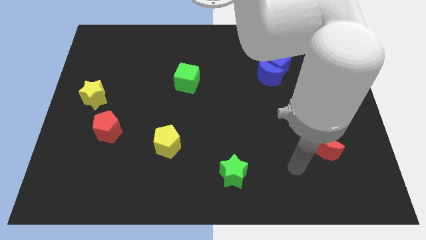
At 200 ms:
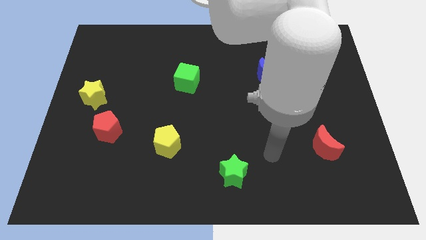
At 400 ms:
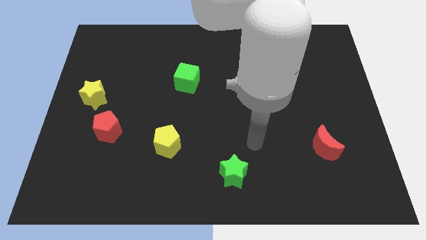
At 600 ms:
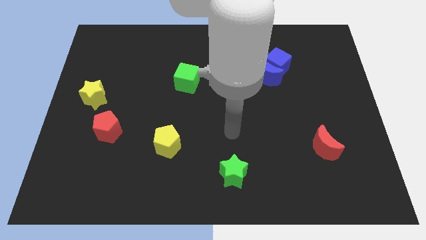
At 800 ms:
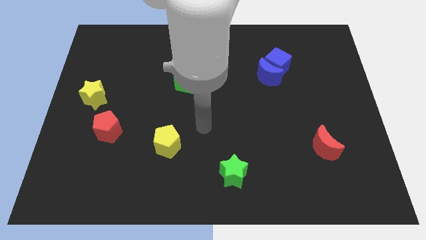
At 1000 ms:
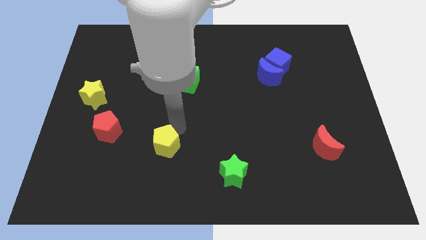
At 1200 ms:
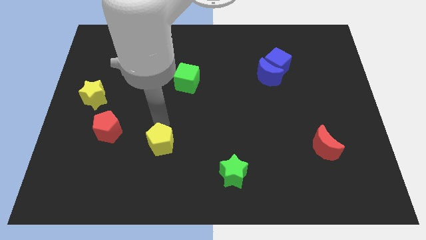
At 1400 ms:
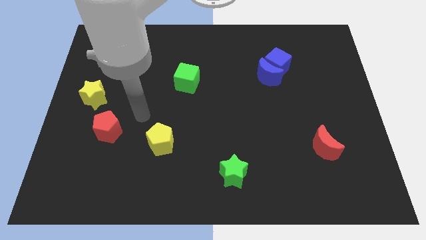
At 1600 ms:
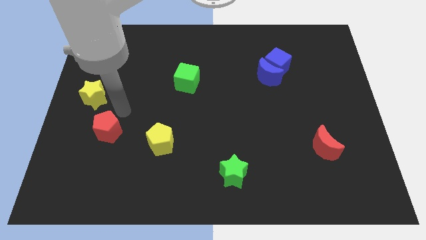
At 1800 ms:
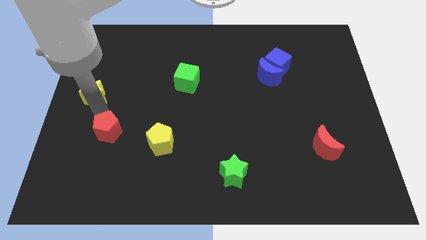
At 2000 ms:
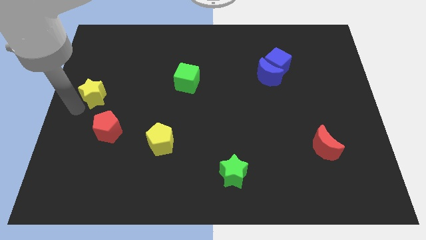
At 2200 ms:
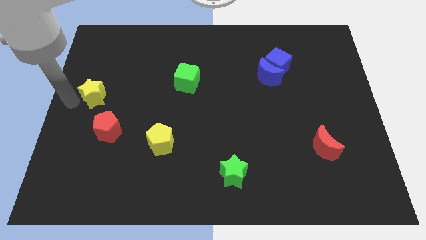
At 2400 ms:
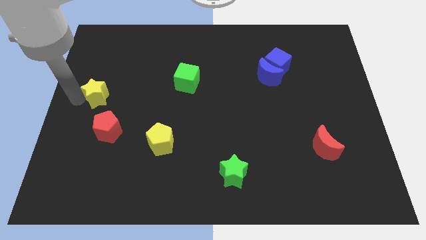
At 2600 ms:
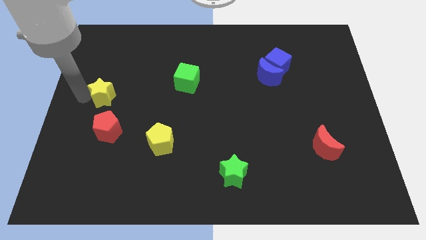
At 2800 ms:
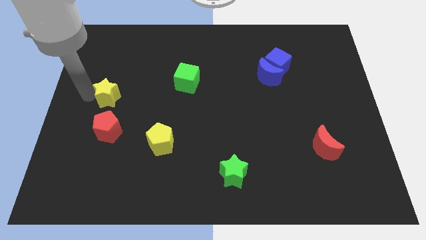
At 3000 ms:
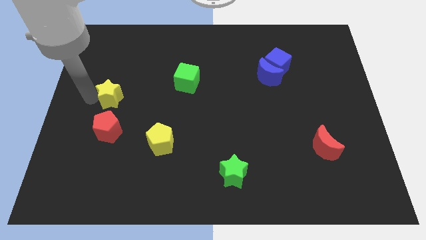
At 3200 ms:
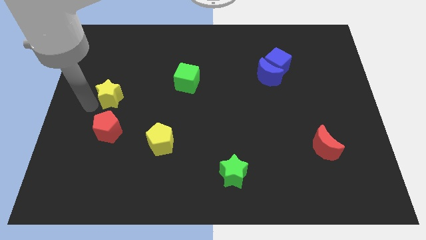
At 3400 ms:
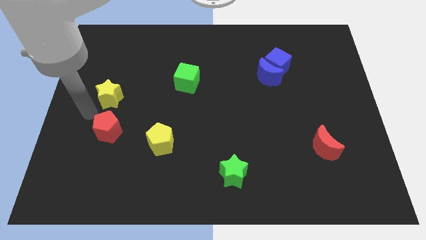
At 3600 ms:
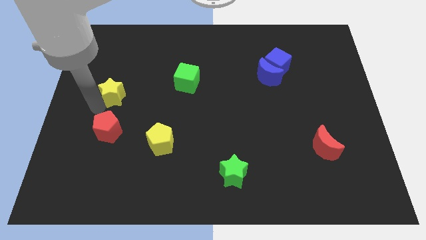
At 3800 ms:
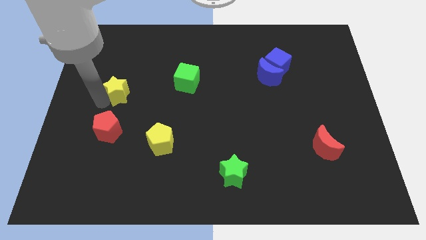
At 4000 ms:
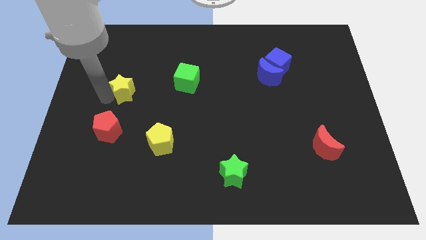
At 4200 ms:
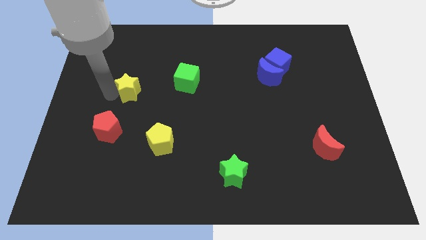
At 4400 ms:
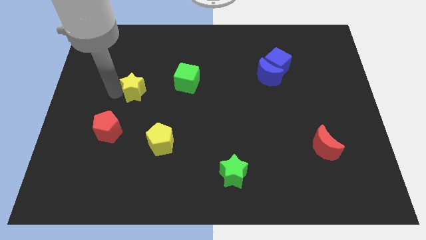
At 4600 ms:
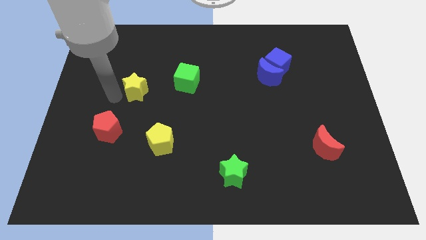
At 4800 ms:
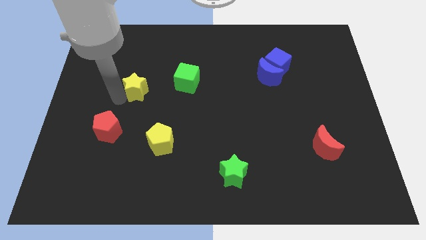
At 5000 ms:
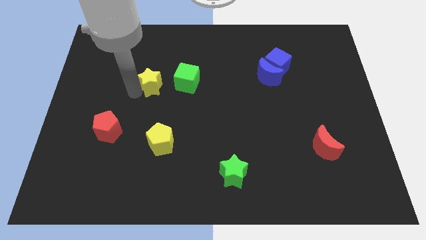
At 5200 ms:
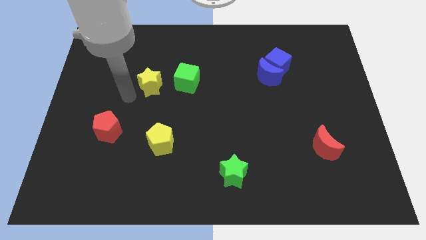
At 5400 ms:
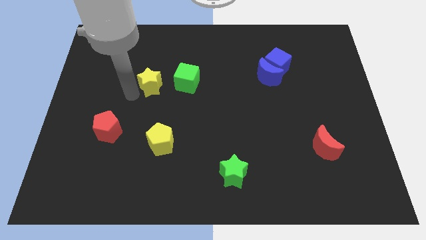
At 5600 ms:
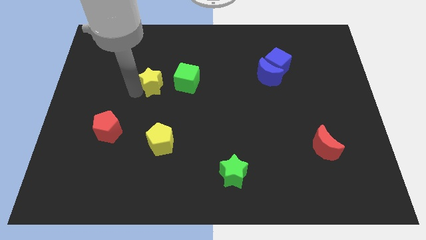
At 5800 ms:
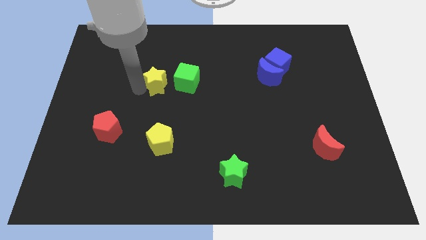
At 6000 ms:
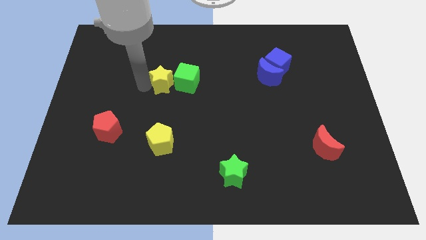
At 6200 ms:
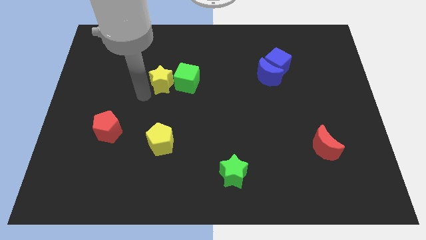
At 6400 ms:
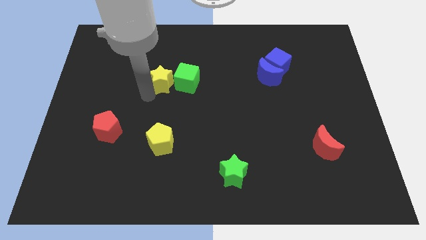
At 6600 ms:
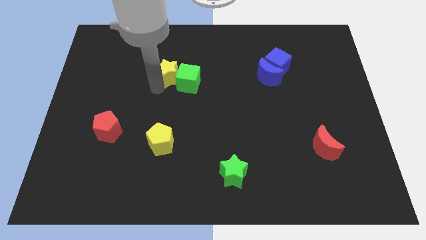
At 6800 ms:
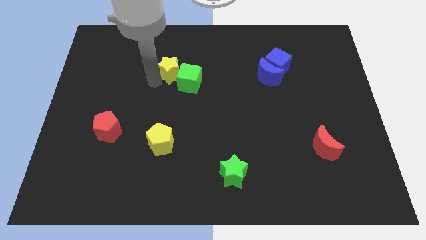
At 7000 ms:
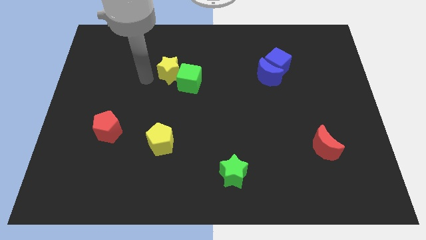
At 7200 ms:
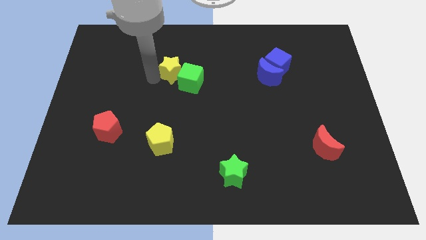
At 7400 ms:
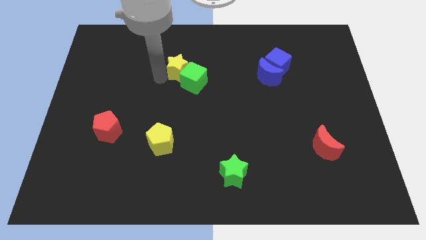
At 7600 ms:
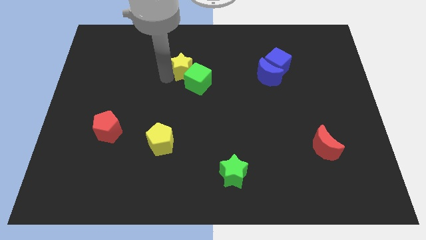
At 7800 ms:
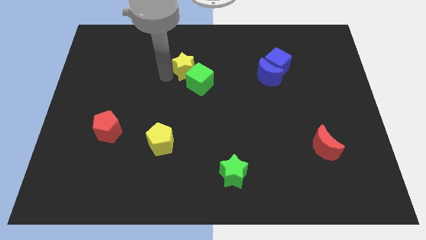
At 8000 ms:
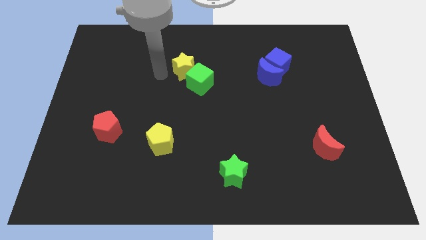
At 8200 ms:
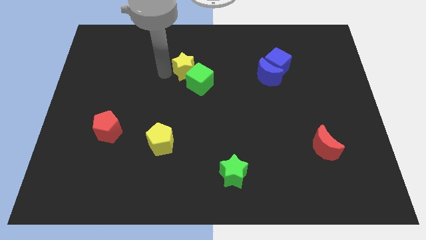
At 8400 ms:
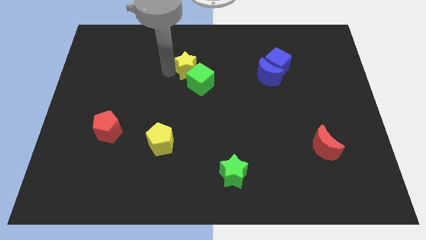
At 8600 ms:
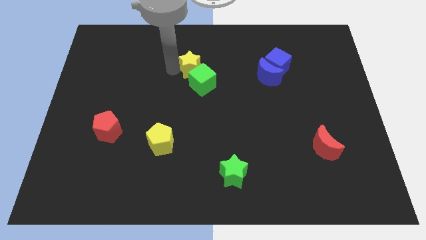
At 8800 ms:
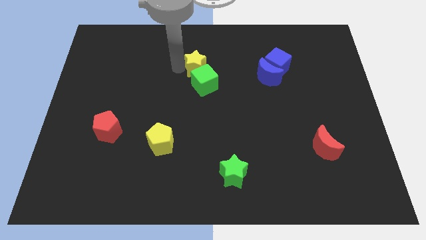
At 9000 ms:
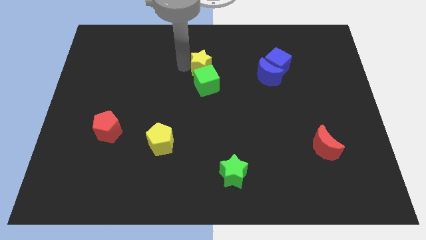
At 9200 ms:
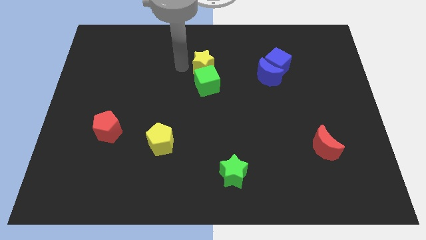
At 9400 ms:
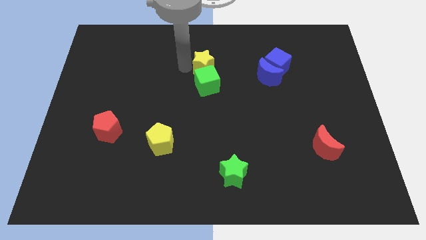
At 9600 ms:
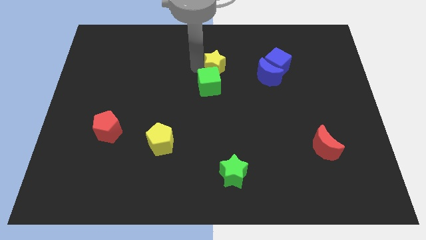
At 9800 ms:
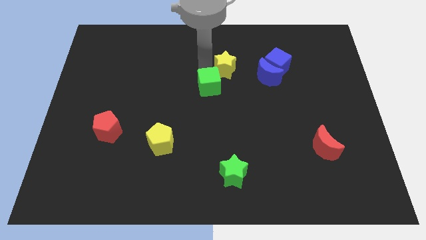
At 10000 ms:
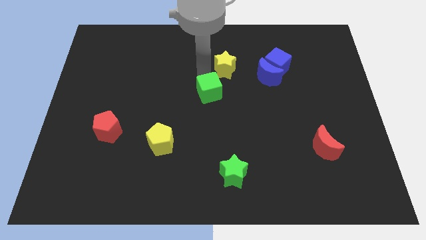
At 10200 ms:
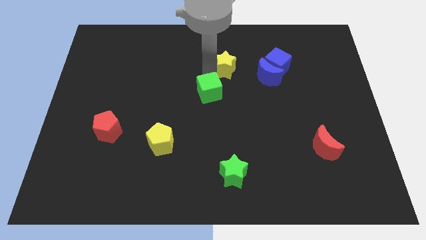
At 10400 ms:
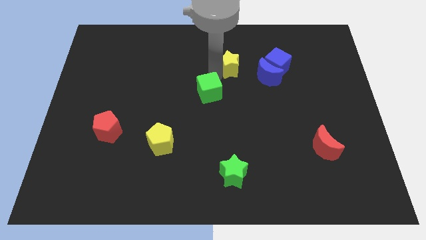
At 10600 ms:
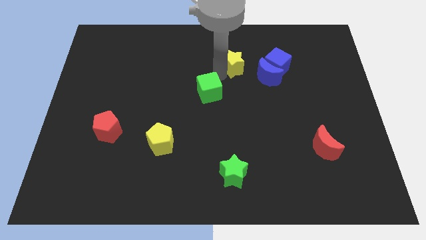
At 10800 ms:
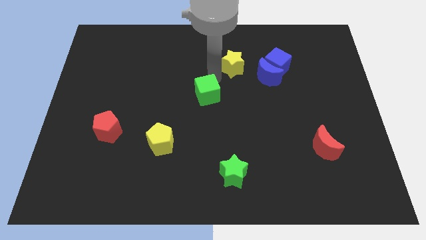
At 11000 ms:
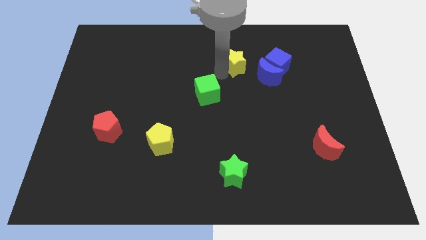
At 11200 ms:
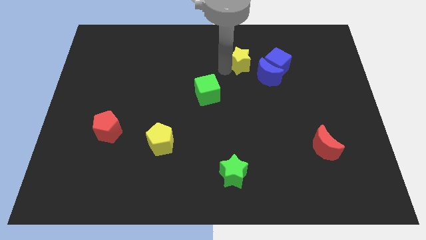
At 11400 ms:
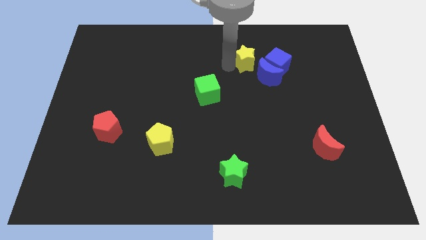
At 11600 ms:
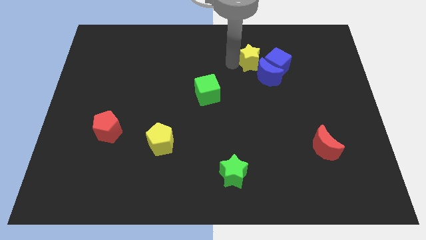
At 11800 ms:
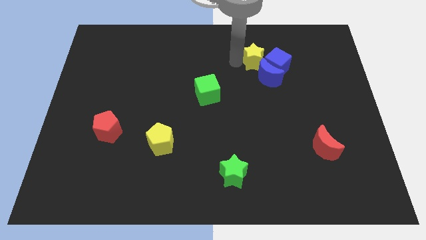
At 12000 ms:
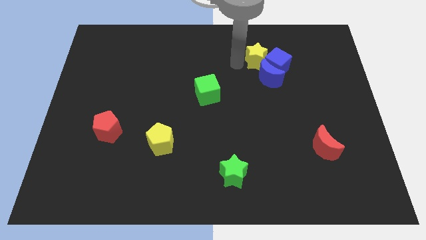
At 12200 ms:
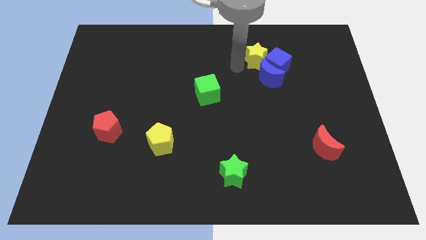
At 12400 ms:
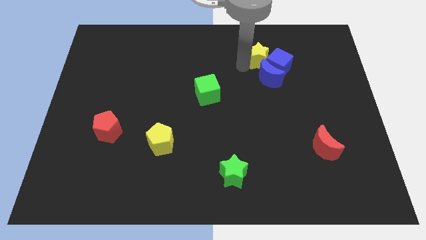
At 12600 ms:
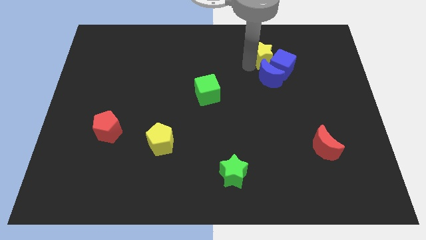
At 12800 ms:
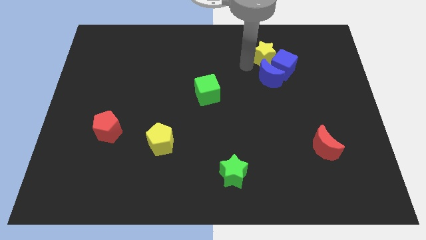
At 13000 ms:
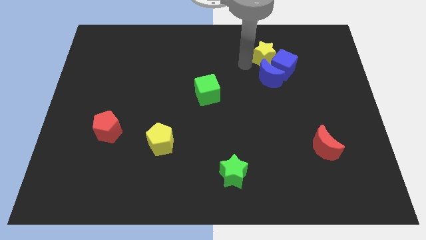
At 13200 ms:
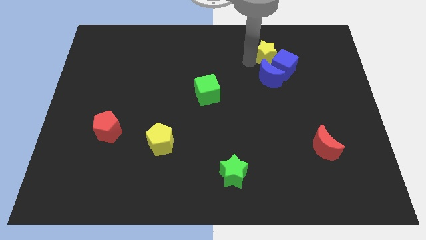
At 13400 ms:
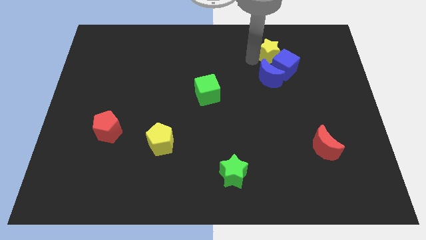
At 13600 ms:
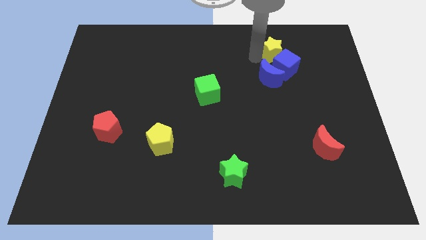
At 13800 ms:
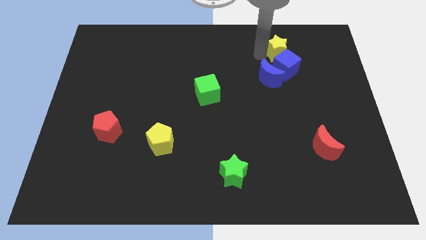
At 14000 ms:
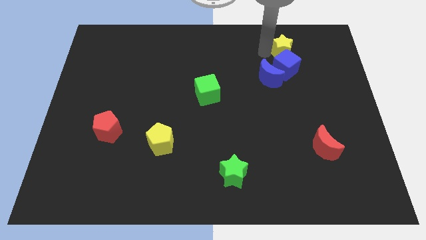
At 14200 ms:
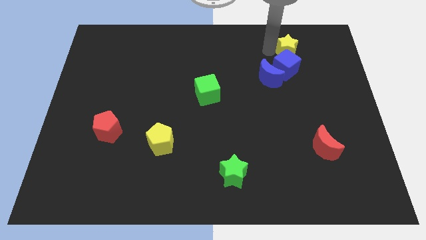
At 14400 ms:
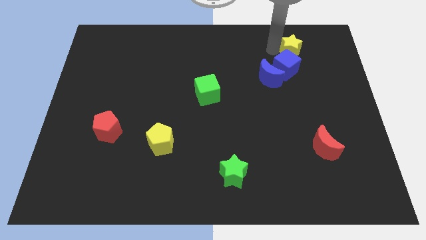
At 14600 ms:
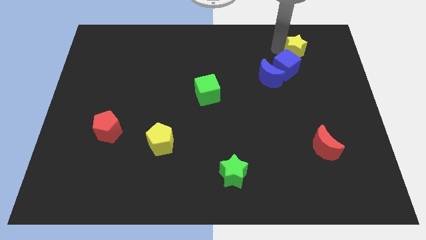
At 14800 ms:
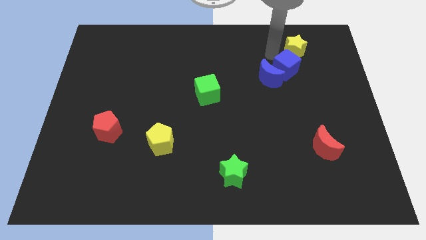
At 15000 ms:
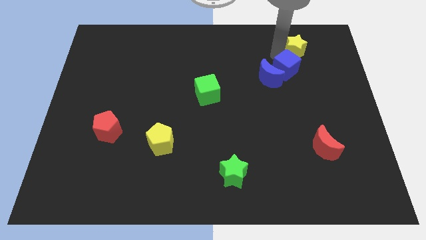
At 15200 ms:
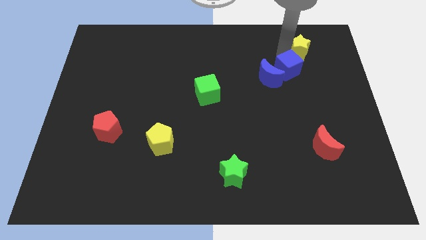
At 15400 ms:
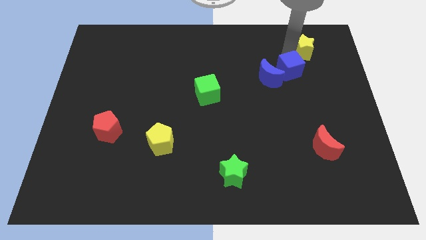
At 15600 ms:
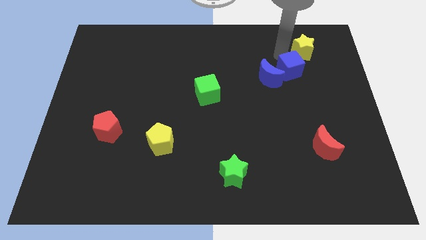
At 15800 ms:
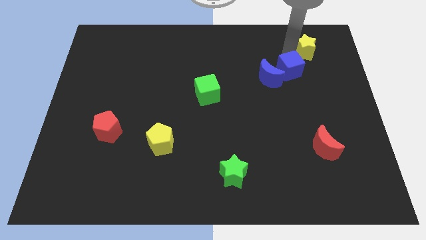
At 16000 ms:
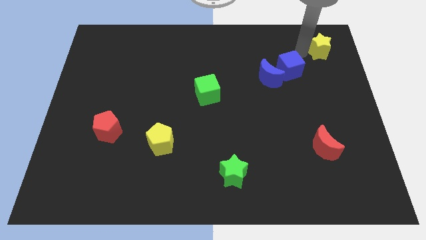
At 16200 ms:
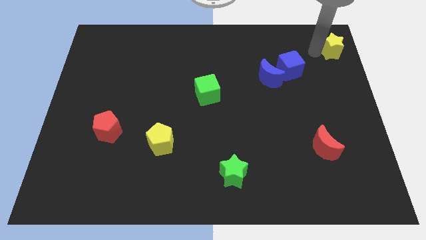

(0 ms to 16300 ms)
put the yellow star to the top right
